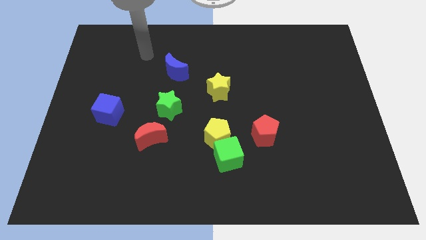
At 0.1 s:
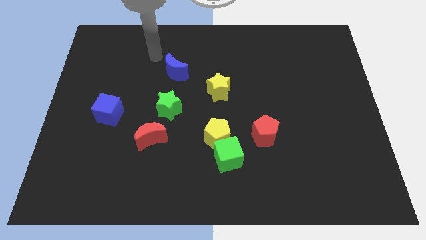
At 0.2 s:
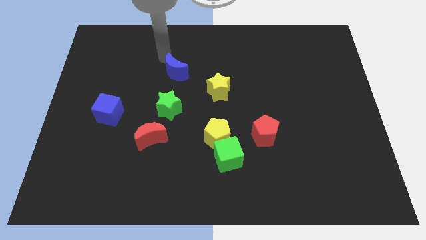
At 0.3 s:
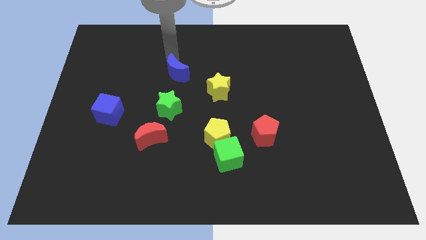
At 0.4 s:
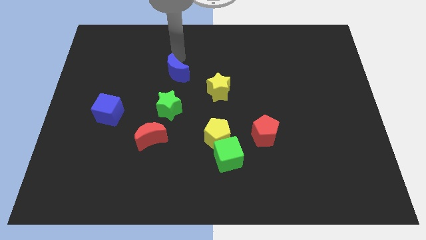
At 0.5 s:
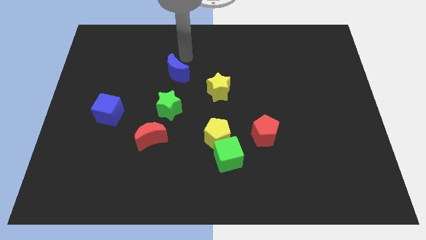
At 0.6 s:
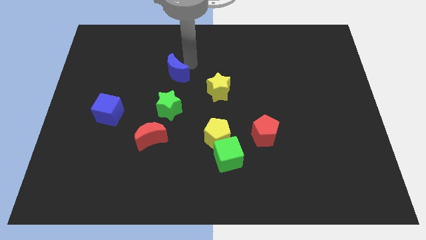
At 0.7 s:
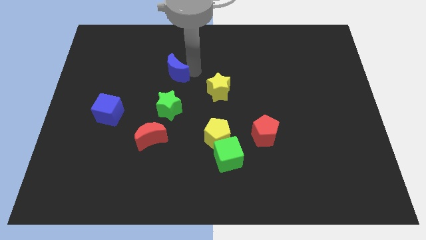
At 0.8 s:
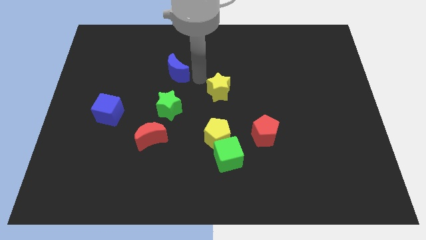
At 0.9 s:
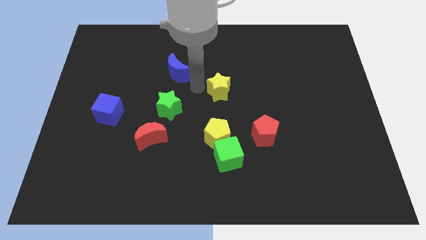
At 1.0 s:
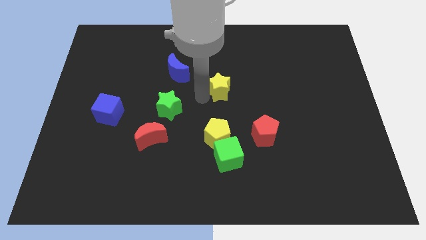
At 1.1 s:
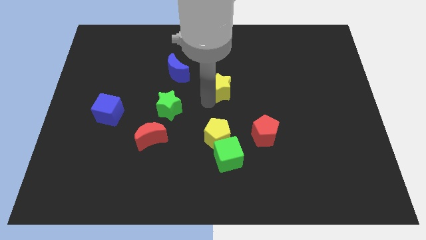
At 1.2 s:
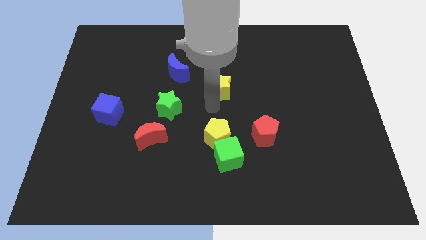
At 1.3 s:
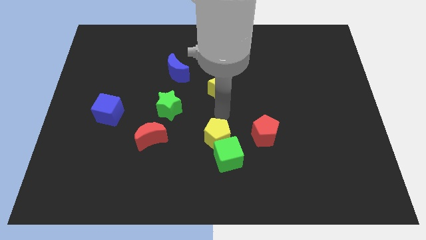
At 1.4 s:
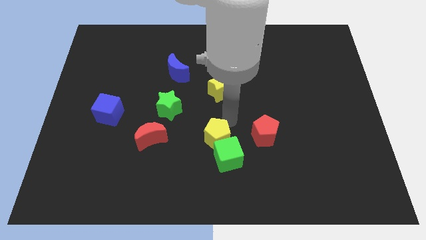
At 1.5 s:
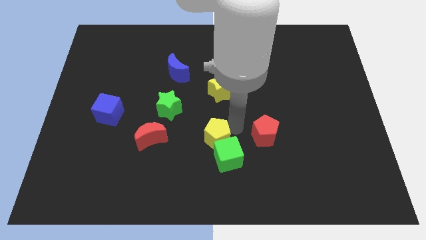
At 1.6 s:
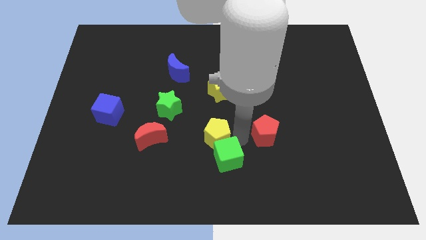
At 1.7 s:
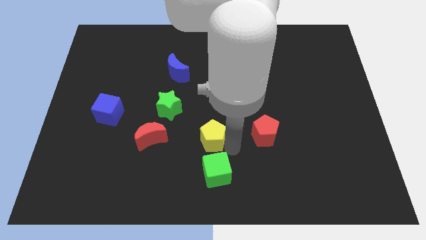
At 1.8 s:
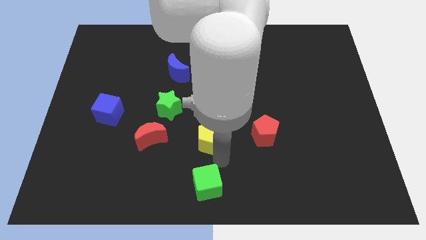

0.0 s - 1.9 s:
pull the yellow pentagon apart from the green cube

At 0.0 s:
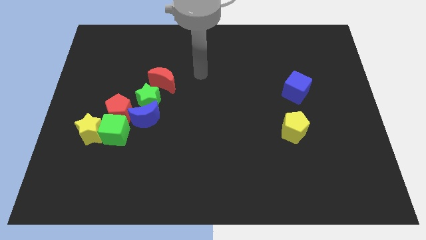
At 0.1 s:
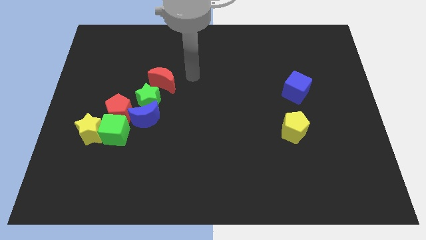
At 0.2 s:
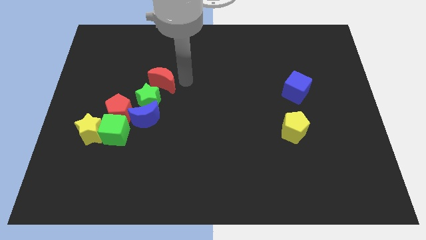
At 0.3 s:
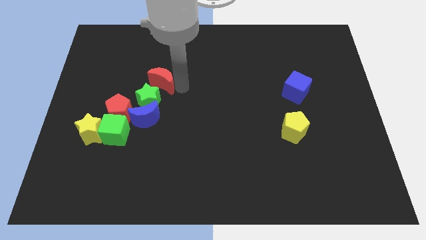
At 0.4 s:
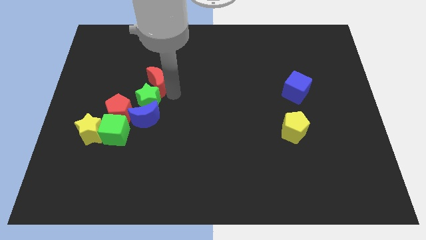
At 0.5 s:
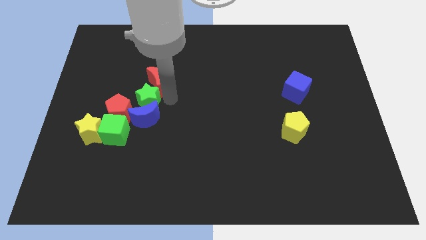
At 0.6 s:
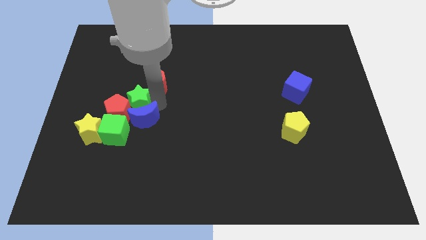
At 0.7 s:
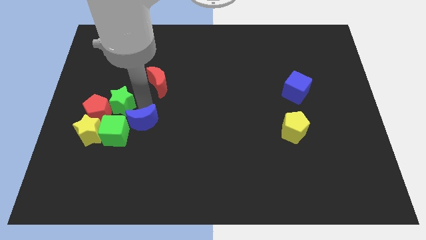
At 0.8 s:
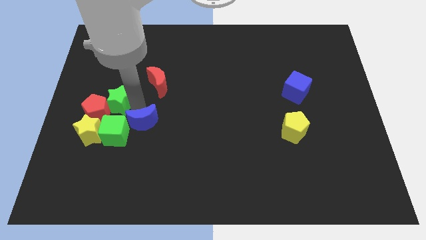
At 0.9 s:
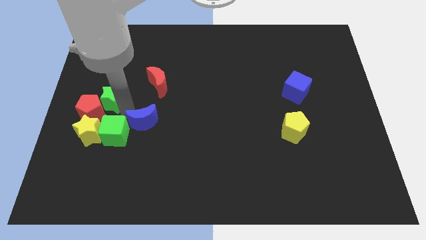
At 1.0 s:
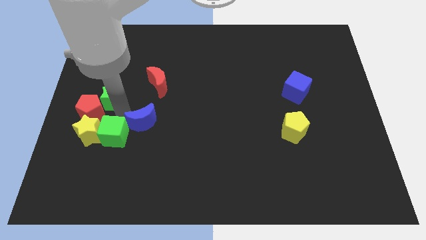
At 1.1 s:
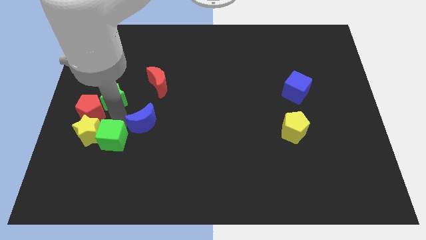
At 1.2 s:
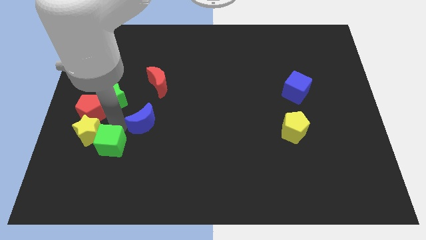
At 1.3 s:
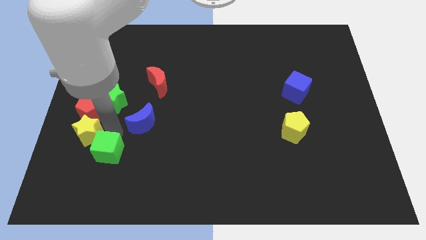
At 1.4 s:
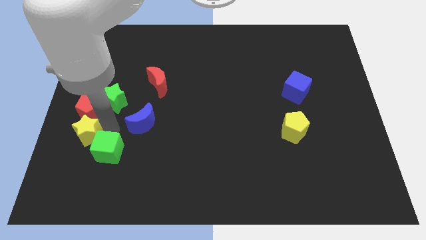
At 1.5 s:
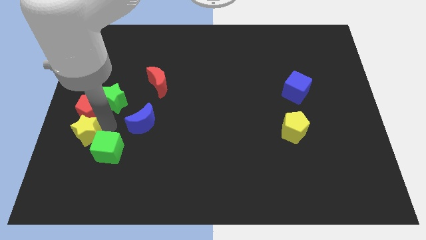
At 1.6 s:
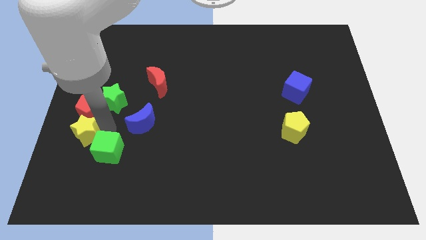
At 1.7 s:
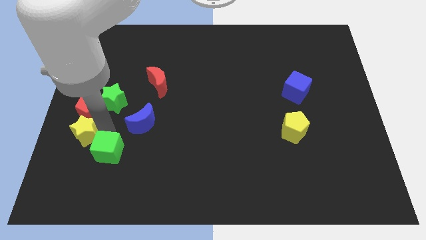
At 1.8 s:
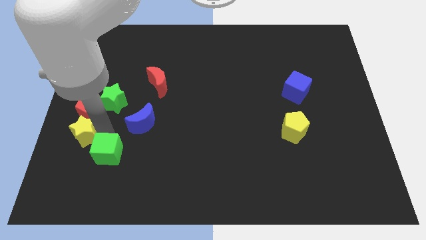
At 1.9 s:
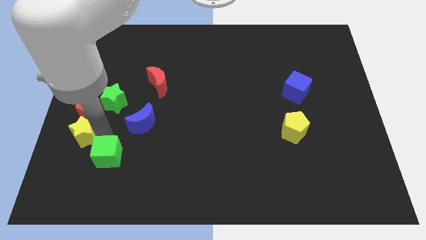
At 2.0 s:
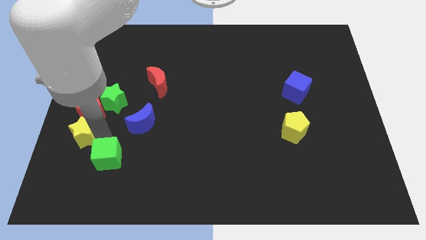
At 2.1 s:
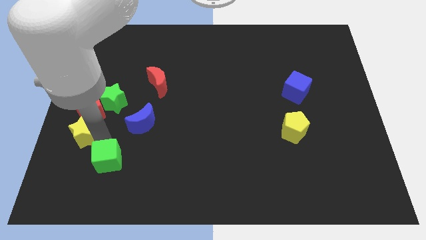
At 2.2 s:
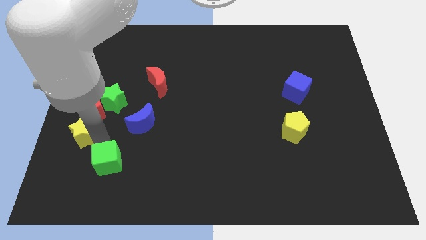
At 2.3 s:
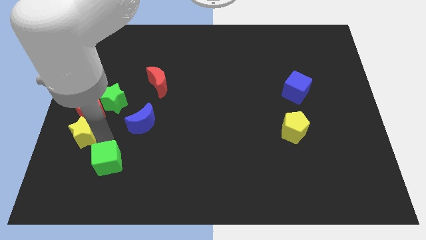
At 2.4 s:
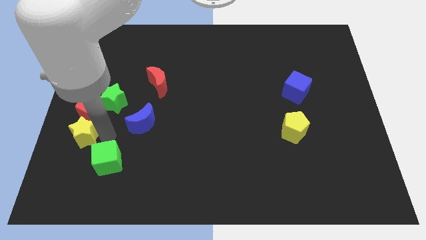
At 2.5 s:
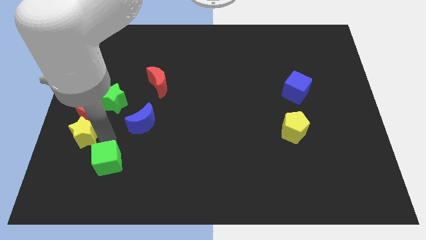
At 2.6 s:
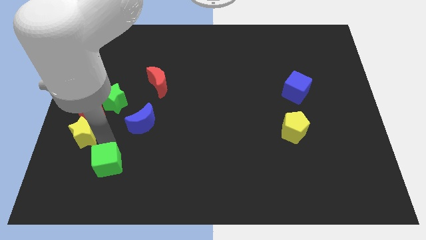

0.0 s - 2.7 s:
pull the green cube apart from the group of blocks

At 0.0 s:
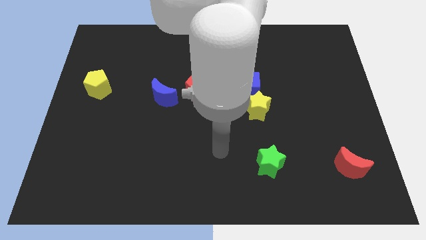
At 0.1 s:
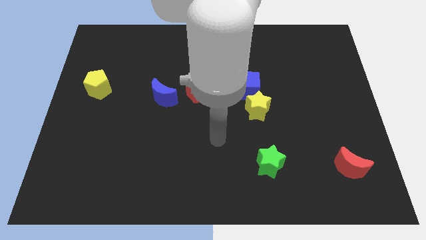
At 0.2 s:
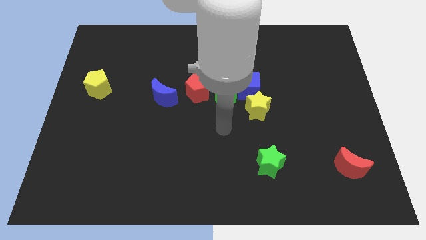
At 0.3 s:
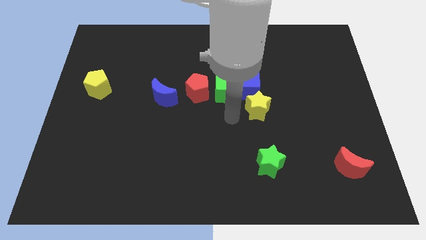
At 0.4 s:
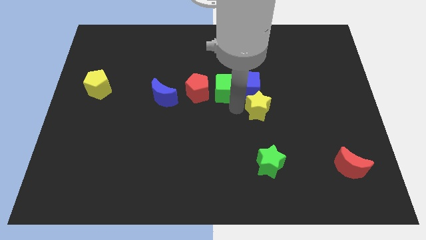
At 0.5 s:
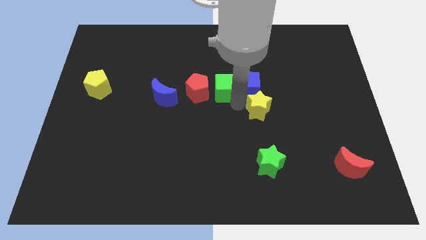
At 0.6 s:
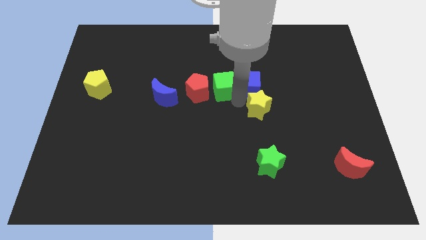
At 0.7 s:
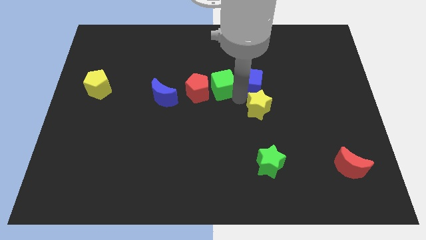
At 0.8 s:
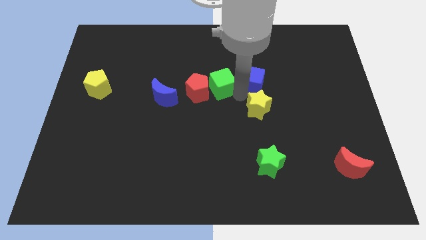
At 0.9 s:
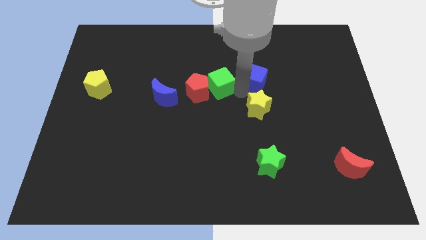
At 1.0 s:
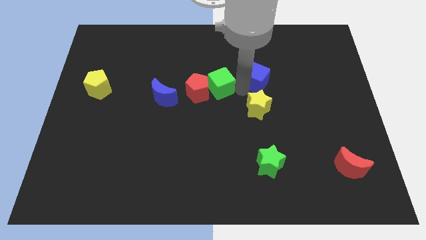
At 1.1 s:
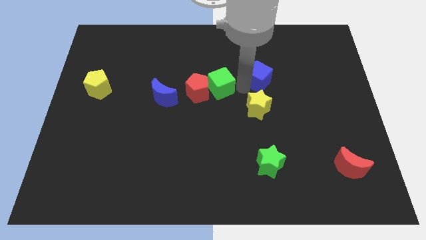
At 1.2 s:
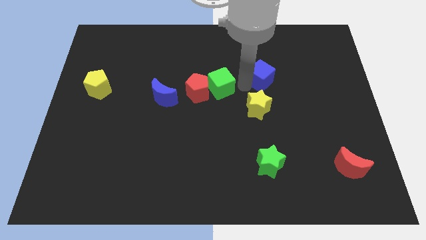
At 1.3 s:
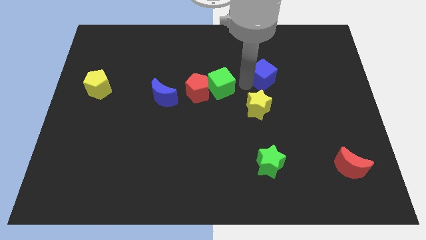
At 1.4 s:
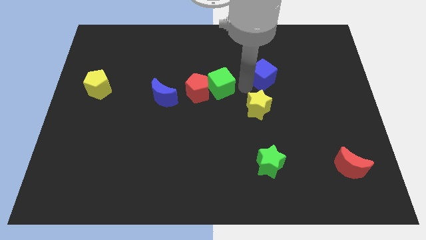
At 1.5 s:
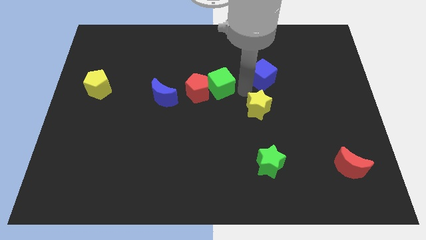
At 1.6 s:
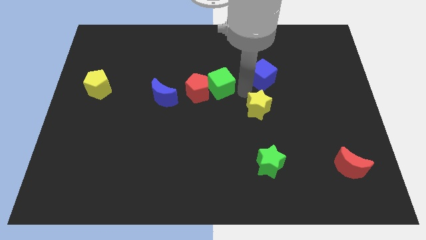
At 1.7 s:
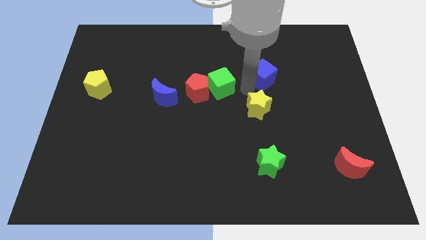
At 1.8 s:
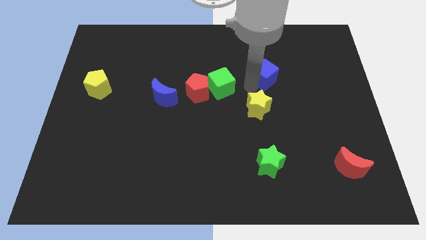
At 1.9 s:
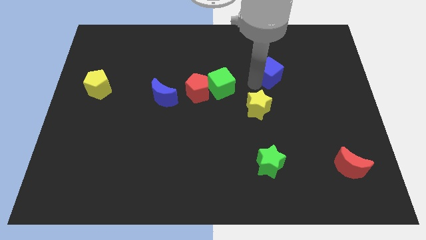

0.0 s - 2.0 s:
move the blue cube away from the green cube and yellow star

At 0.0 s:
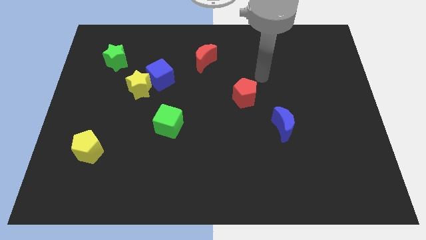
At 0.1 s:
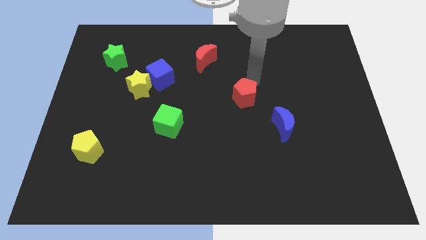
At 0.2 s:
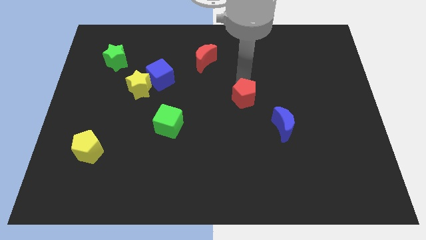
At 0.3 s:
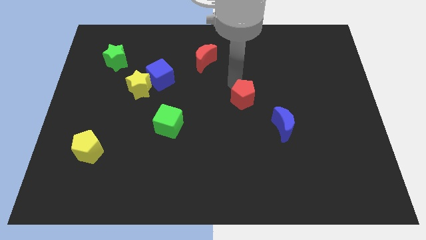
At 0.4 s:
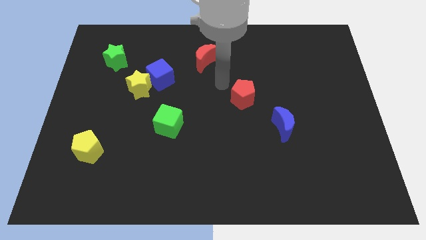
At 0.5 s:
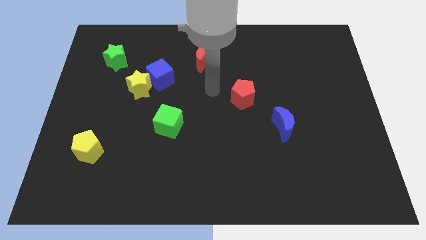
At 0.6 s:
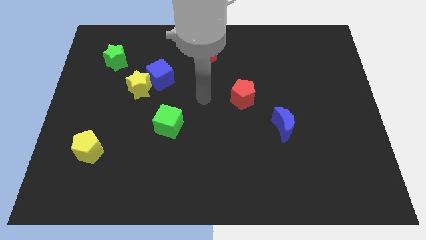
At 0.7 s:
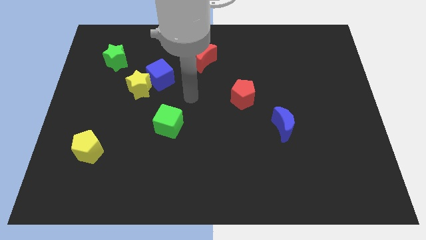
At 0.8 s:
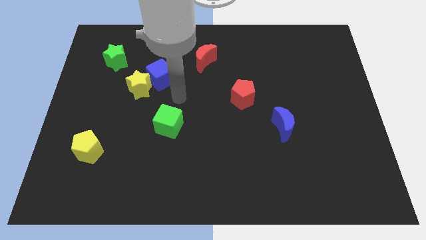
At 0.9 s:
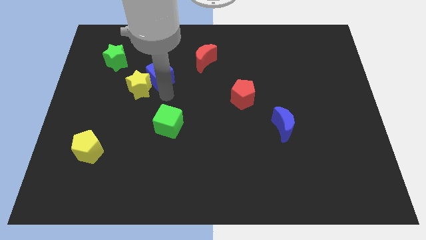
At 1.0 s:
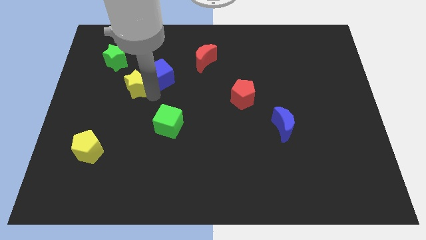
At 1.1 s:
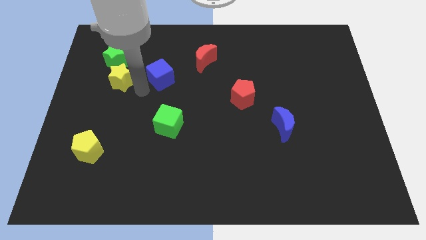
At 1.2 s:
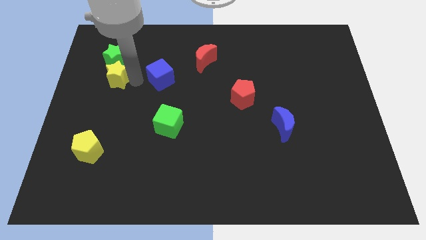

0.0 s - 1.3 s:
move the blue cube away from the yellow star

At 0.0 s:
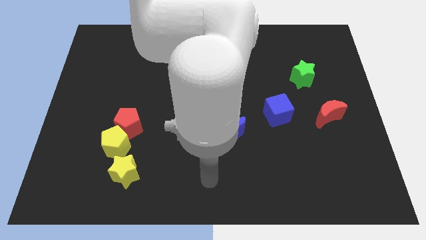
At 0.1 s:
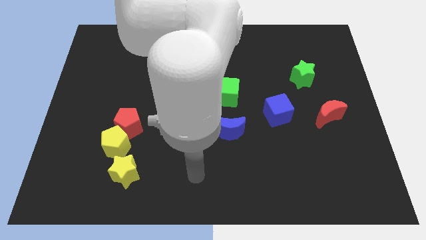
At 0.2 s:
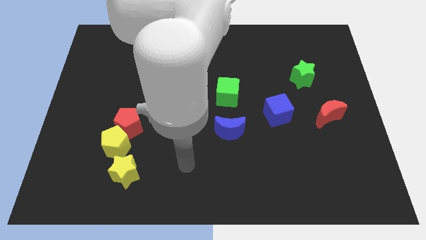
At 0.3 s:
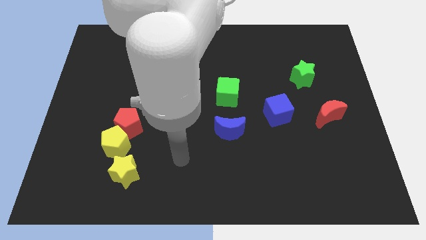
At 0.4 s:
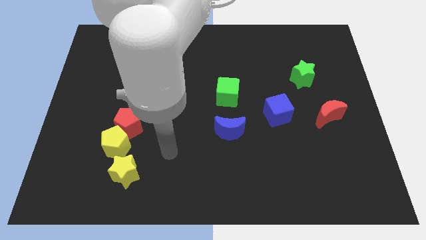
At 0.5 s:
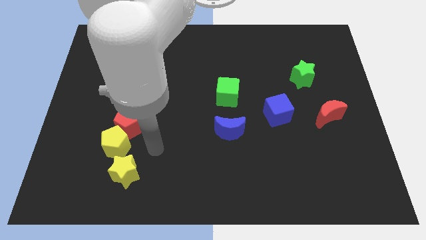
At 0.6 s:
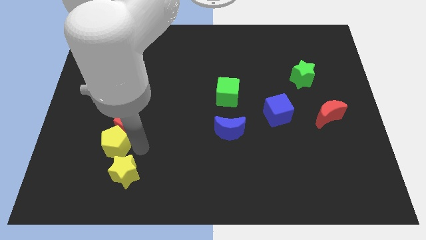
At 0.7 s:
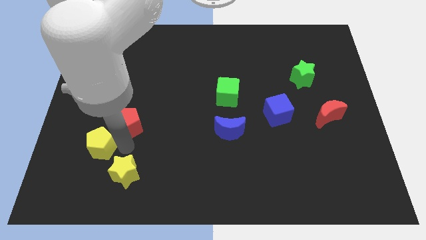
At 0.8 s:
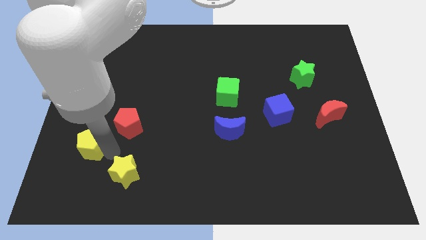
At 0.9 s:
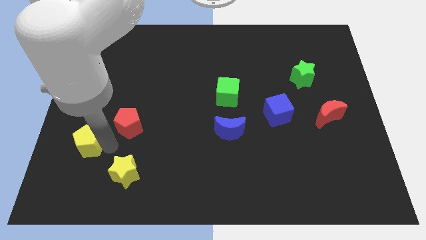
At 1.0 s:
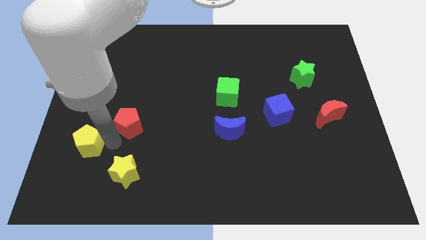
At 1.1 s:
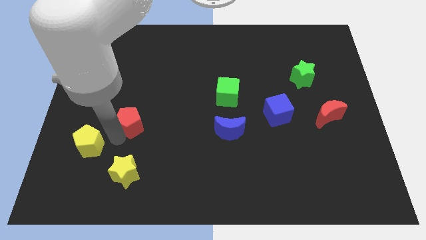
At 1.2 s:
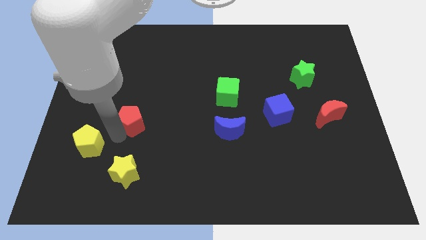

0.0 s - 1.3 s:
separate the red pentagon from the yellow pentagon

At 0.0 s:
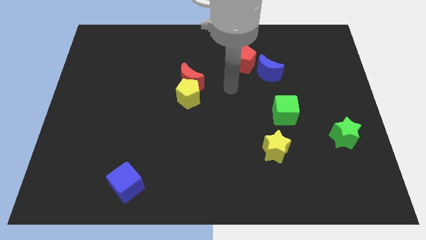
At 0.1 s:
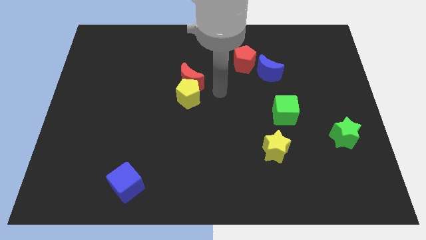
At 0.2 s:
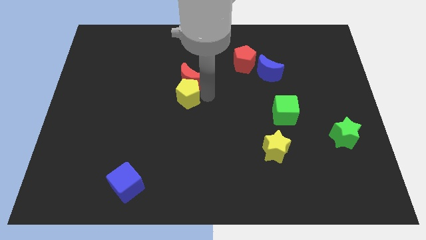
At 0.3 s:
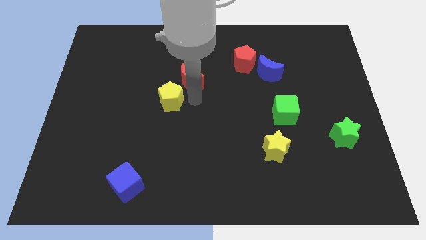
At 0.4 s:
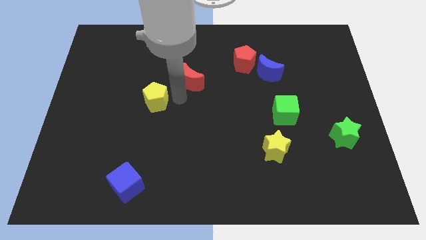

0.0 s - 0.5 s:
separate the red moon from the yellow pentagon
